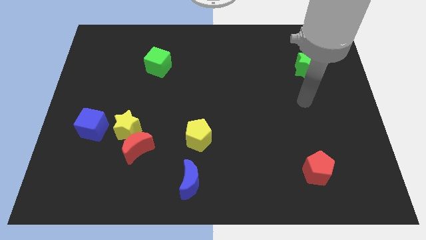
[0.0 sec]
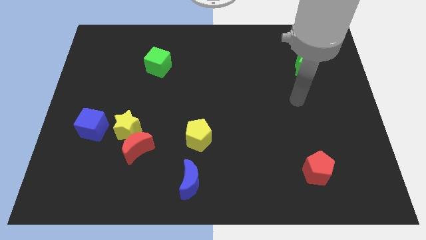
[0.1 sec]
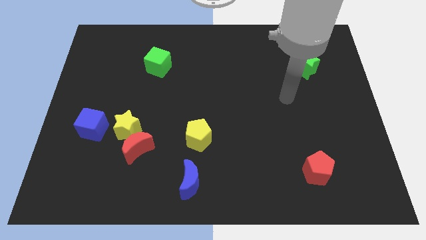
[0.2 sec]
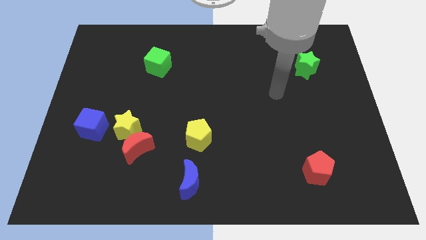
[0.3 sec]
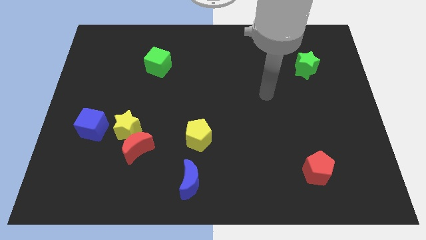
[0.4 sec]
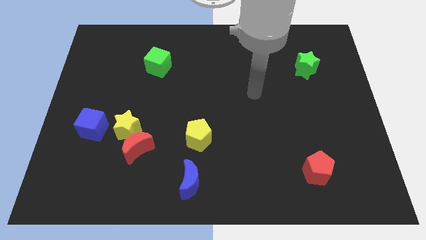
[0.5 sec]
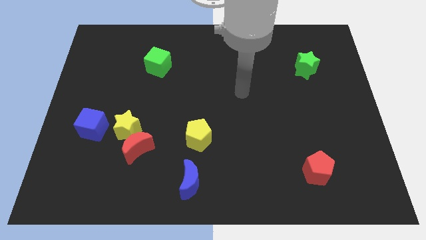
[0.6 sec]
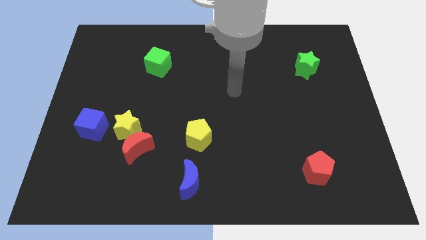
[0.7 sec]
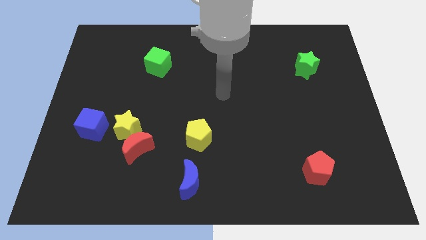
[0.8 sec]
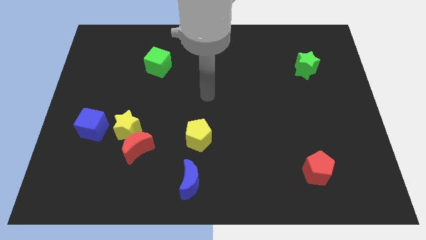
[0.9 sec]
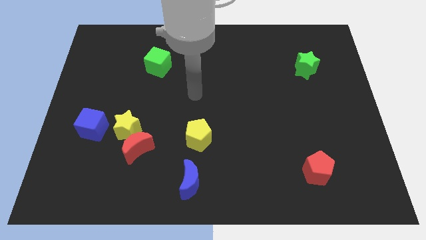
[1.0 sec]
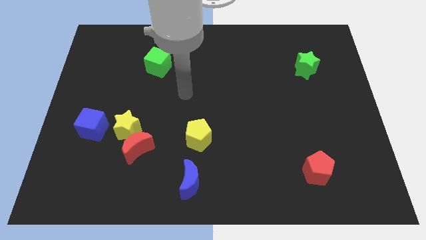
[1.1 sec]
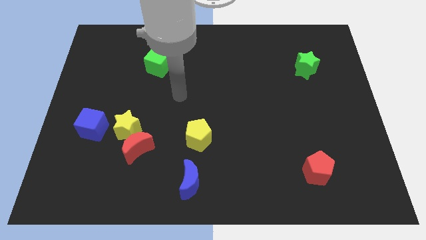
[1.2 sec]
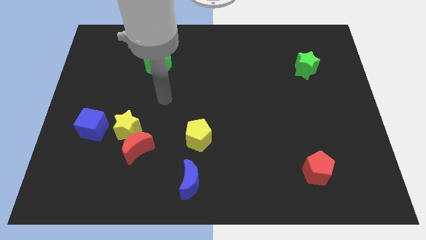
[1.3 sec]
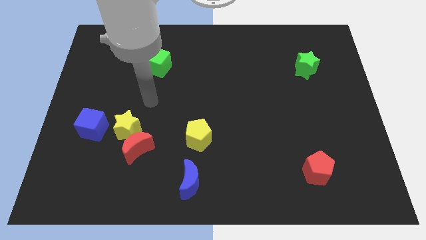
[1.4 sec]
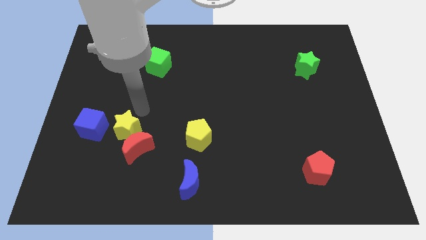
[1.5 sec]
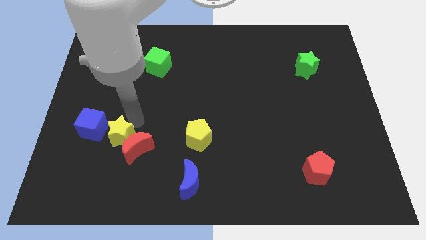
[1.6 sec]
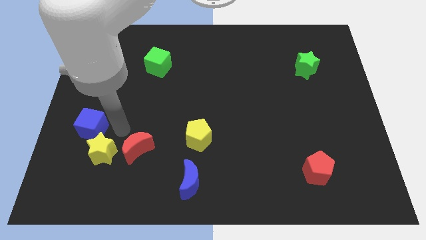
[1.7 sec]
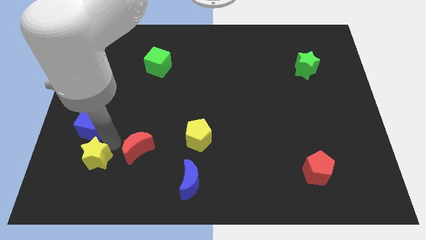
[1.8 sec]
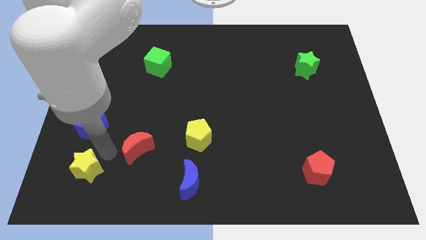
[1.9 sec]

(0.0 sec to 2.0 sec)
pull the red moon apart from the yellow star

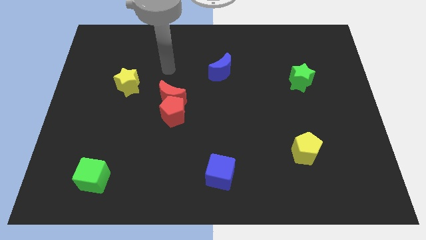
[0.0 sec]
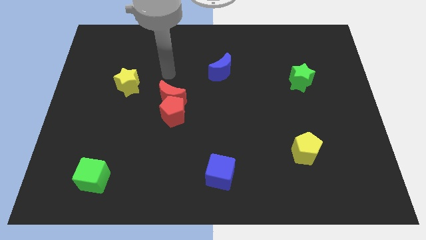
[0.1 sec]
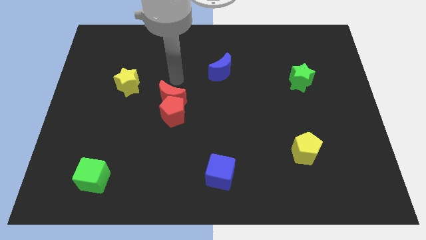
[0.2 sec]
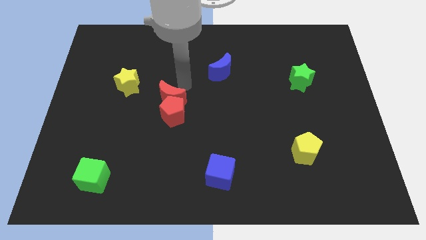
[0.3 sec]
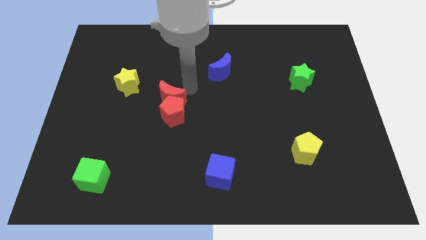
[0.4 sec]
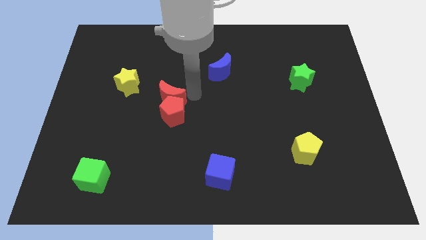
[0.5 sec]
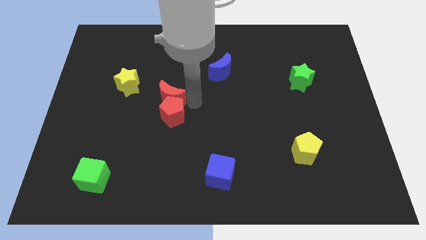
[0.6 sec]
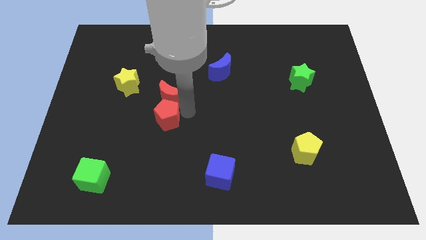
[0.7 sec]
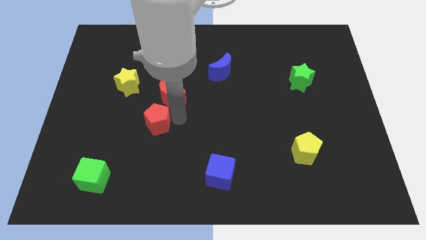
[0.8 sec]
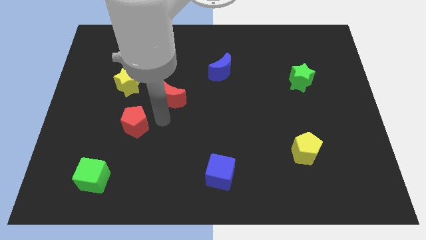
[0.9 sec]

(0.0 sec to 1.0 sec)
pull the red moon apart from the red pentagon

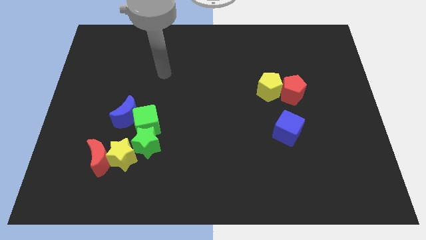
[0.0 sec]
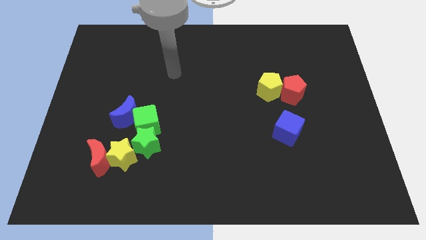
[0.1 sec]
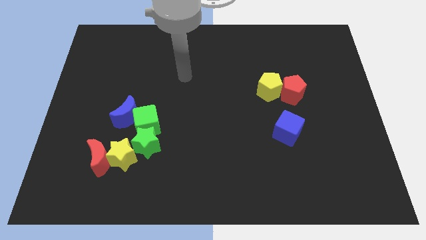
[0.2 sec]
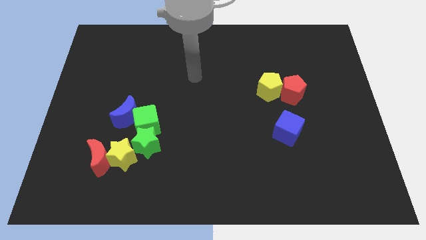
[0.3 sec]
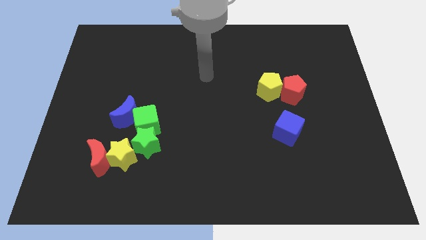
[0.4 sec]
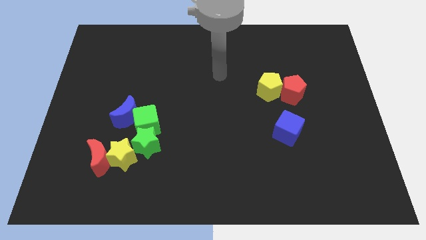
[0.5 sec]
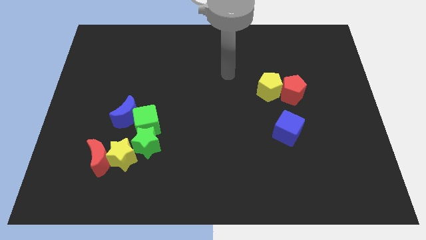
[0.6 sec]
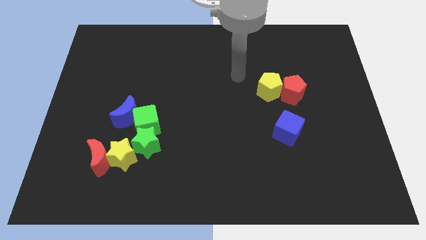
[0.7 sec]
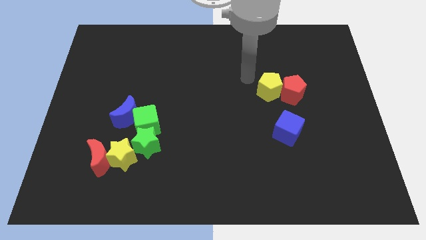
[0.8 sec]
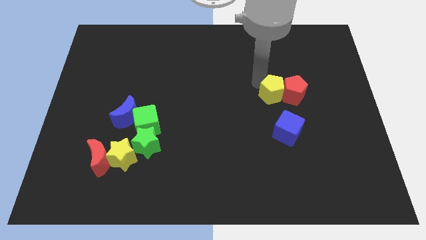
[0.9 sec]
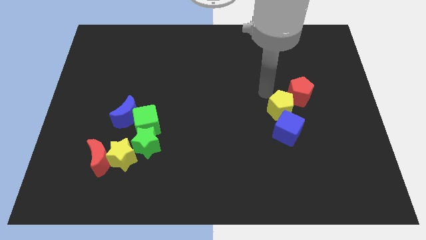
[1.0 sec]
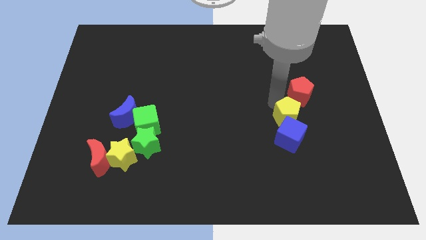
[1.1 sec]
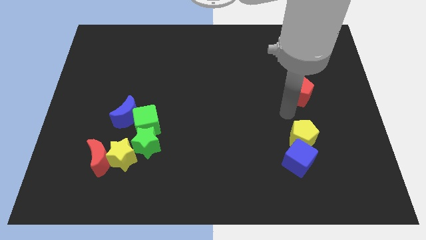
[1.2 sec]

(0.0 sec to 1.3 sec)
pull the red pentagon apart from the yellow pentagon

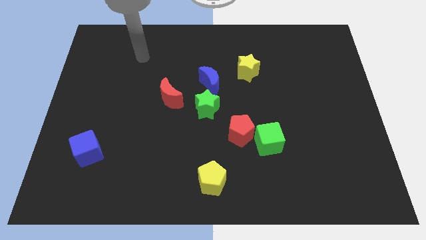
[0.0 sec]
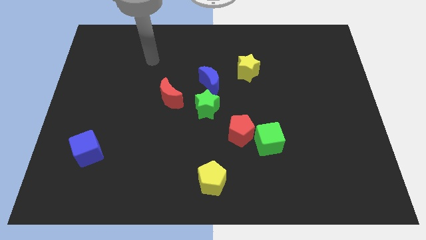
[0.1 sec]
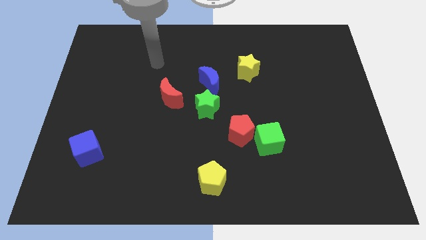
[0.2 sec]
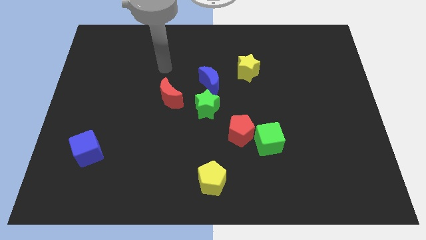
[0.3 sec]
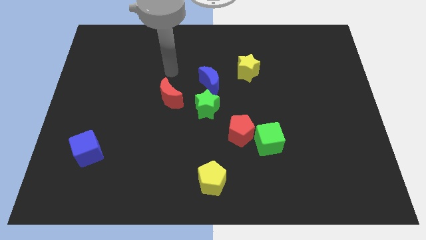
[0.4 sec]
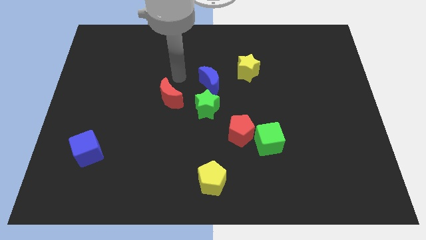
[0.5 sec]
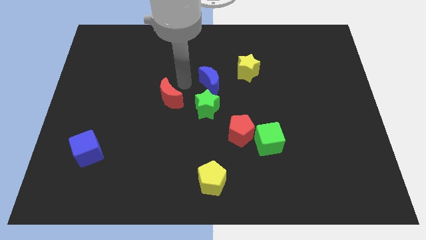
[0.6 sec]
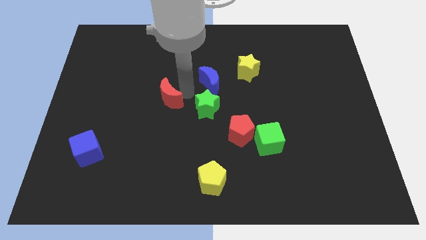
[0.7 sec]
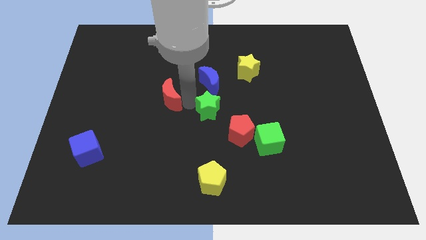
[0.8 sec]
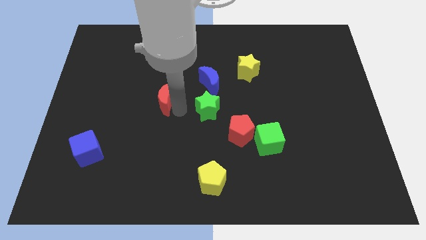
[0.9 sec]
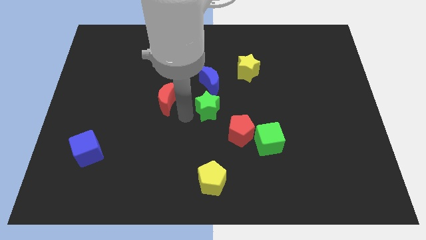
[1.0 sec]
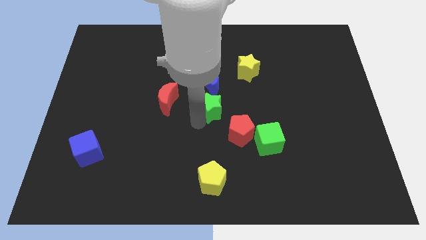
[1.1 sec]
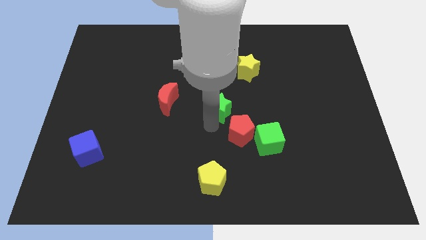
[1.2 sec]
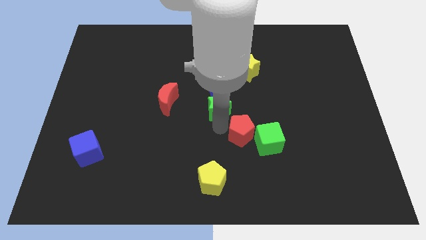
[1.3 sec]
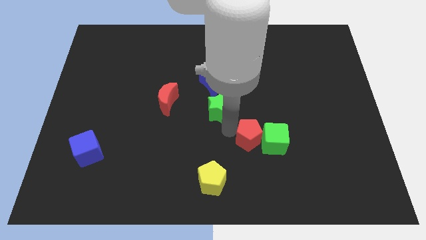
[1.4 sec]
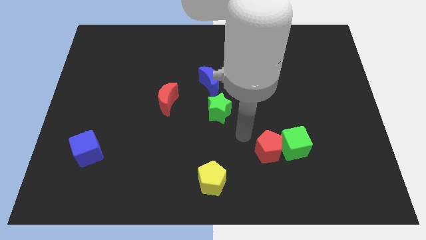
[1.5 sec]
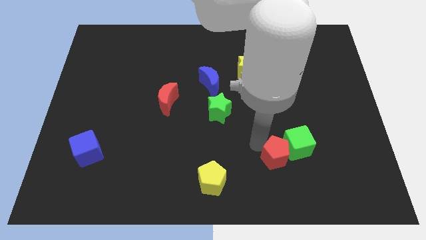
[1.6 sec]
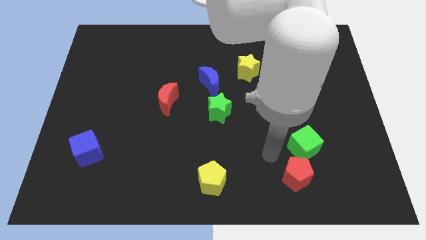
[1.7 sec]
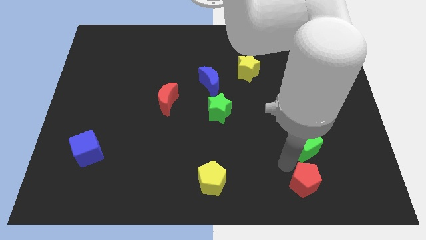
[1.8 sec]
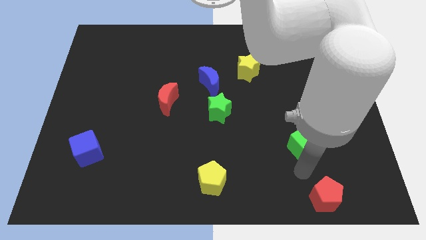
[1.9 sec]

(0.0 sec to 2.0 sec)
move the green cube away from the red pentagon

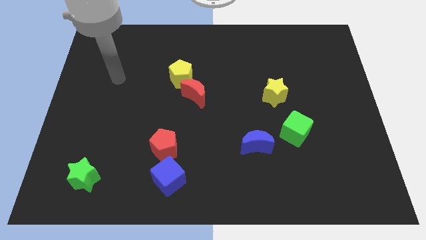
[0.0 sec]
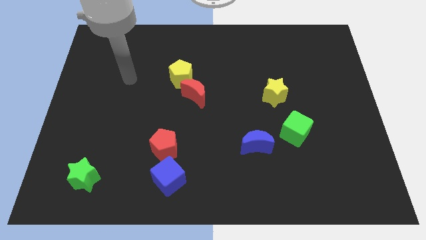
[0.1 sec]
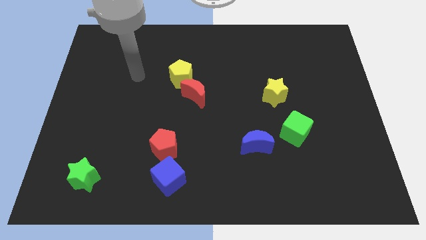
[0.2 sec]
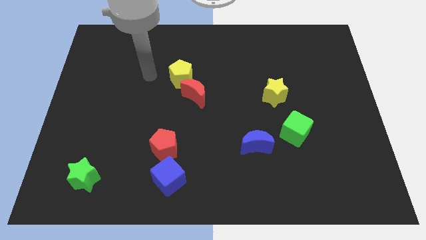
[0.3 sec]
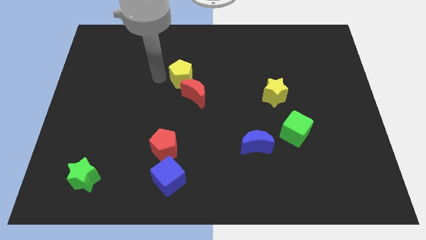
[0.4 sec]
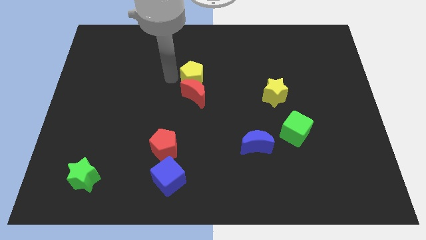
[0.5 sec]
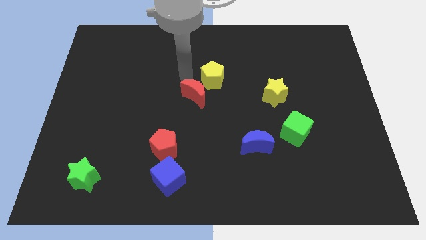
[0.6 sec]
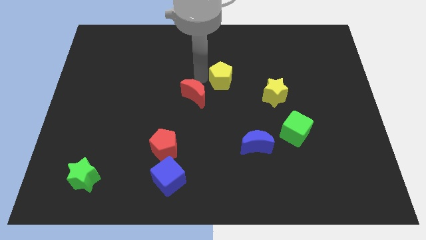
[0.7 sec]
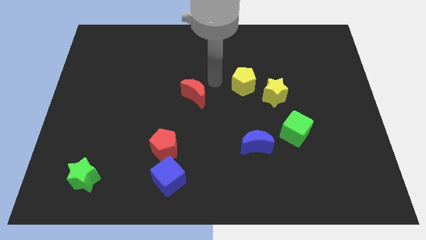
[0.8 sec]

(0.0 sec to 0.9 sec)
move the red moon away from the yellow pentagon

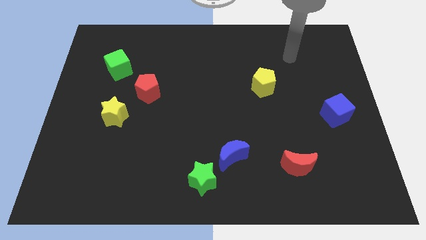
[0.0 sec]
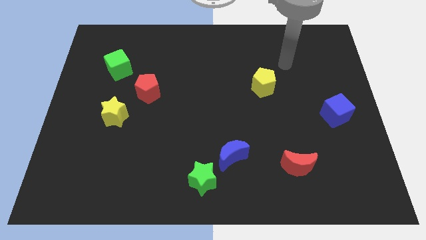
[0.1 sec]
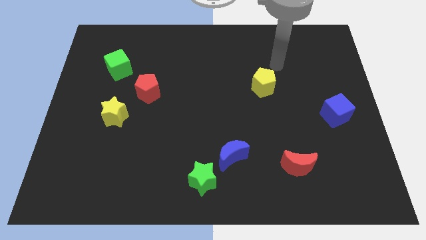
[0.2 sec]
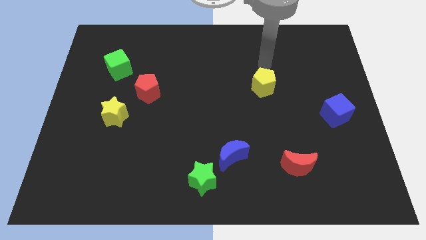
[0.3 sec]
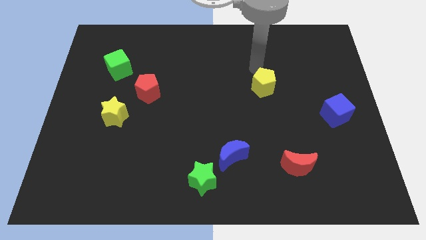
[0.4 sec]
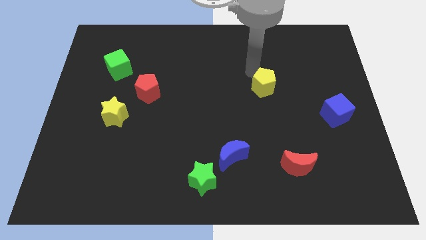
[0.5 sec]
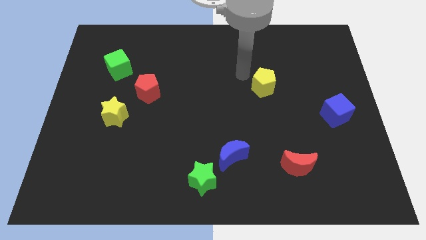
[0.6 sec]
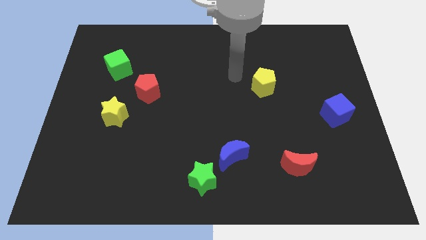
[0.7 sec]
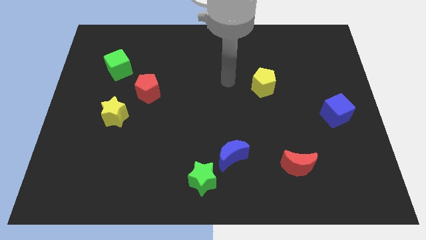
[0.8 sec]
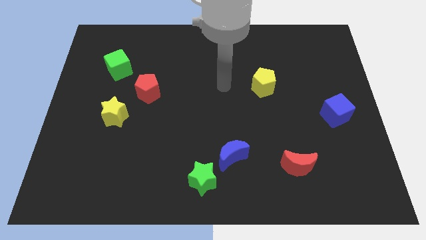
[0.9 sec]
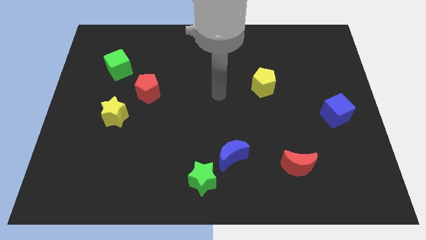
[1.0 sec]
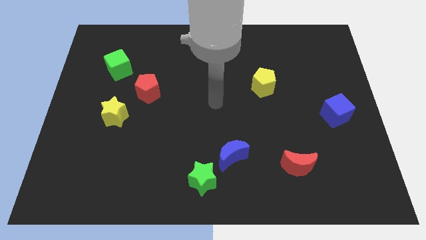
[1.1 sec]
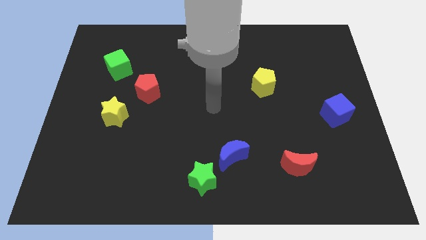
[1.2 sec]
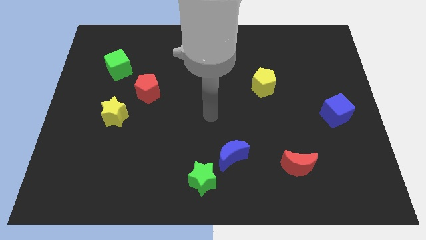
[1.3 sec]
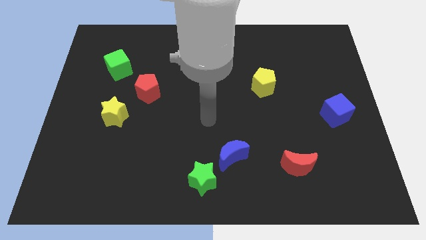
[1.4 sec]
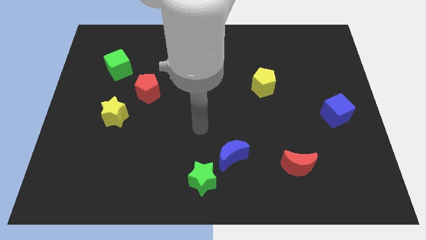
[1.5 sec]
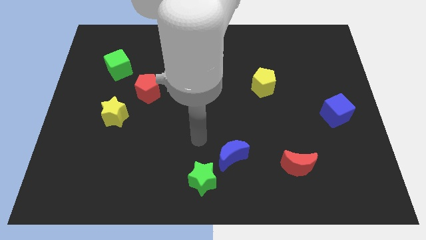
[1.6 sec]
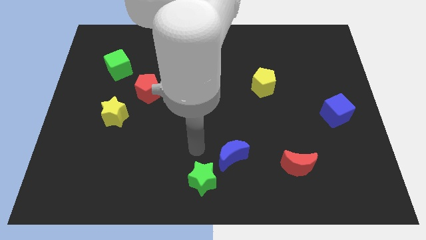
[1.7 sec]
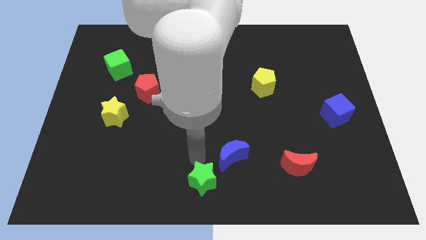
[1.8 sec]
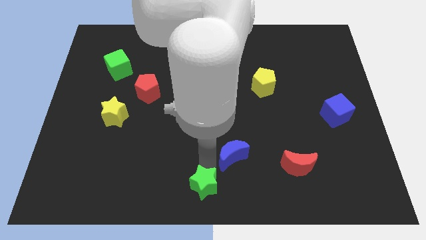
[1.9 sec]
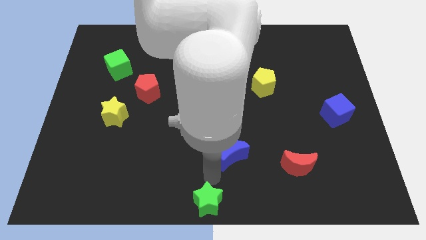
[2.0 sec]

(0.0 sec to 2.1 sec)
separate the blue moon from the green star

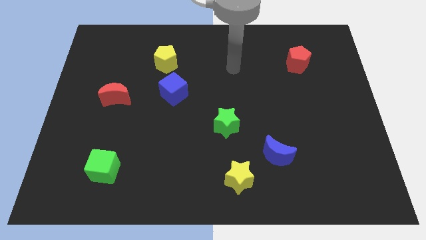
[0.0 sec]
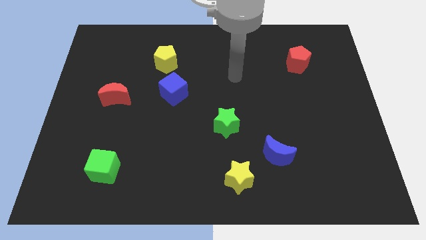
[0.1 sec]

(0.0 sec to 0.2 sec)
pull the blue moon apart from the yellow star
